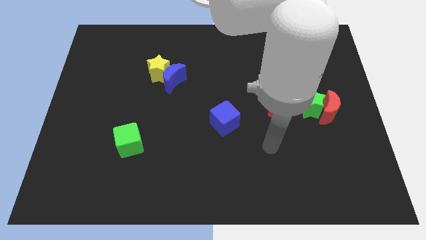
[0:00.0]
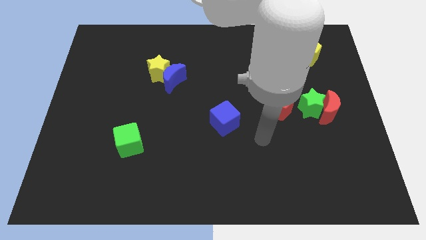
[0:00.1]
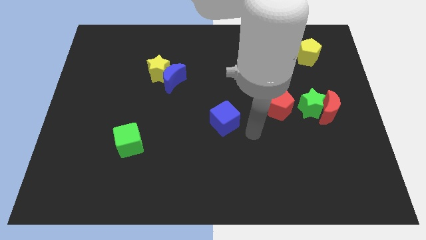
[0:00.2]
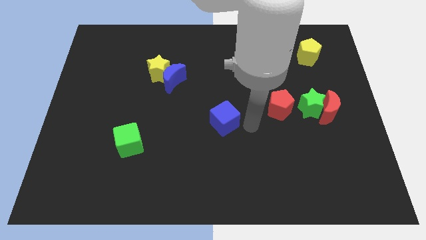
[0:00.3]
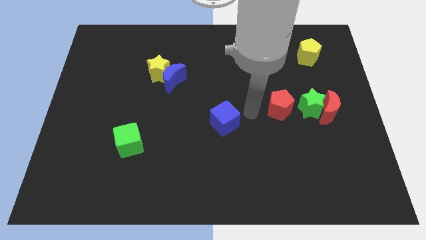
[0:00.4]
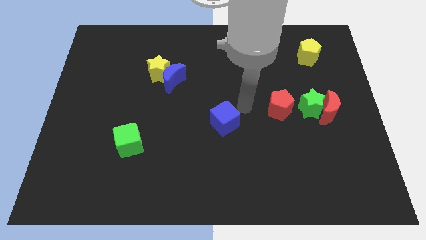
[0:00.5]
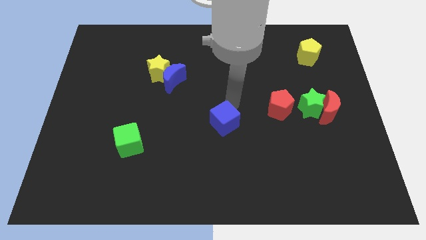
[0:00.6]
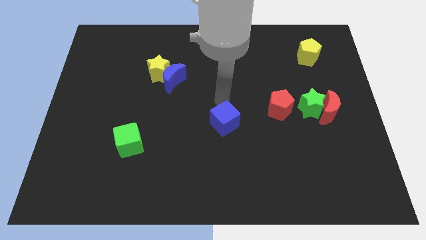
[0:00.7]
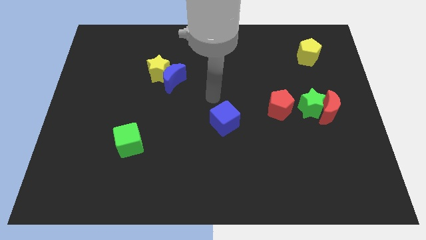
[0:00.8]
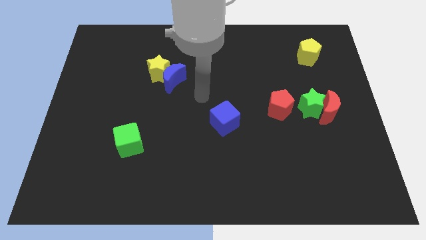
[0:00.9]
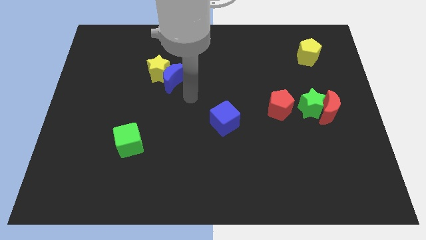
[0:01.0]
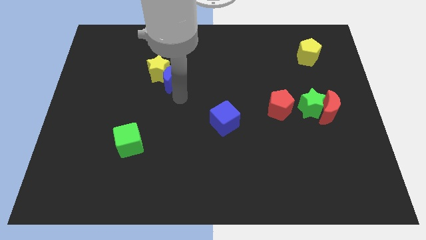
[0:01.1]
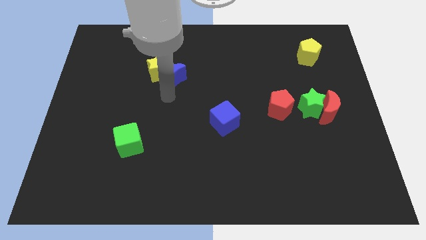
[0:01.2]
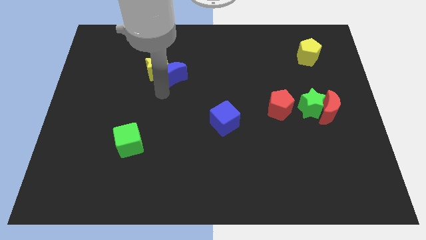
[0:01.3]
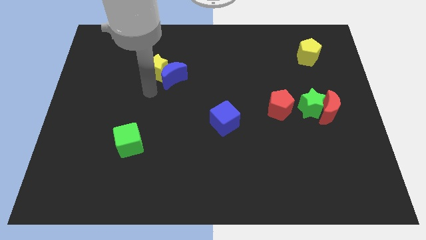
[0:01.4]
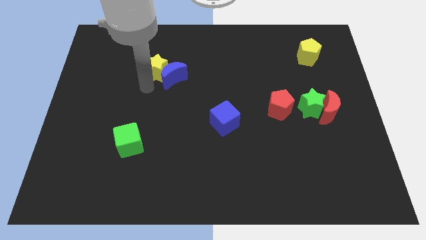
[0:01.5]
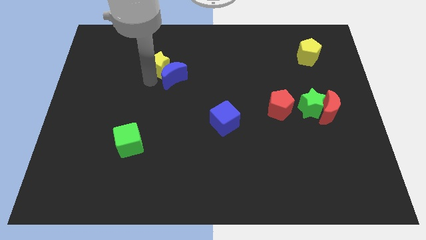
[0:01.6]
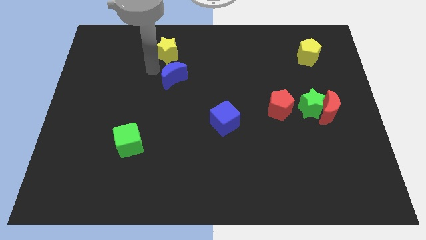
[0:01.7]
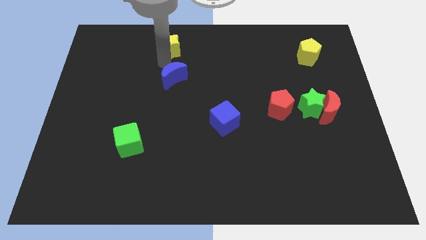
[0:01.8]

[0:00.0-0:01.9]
pull the blue moon apart from the yellow star

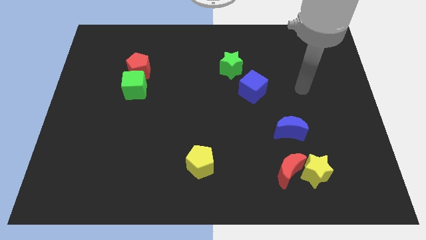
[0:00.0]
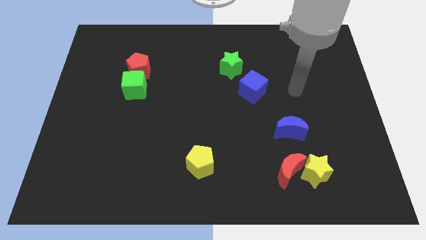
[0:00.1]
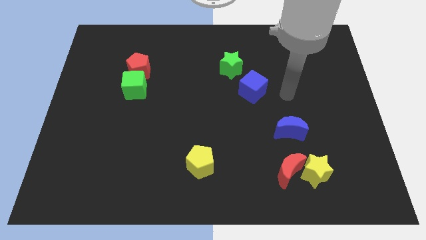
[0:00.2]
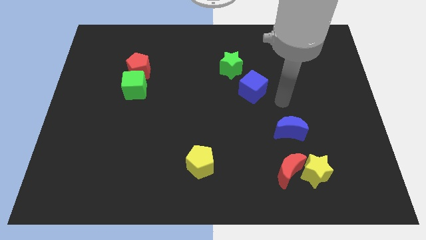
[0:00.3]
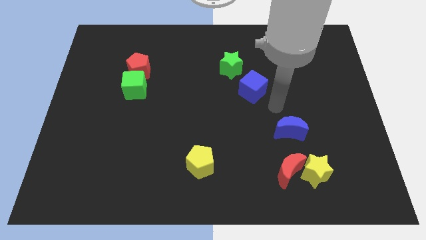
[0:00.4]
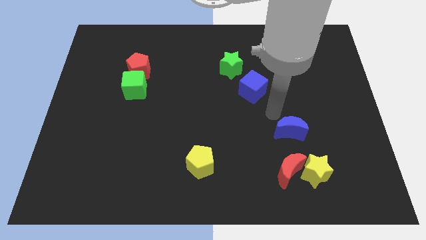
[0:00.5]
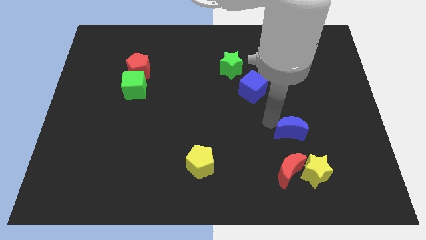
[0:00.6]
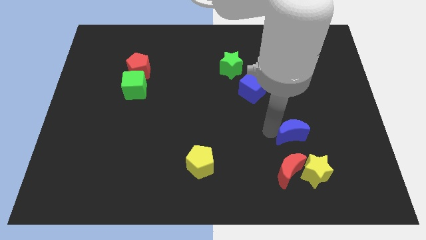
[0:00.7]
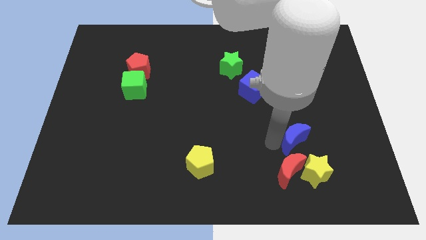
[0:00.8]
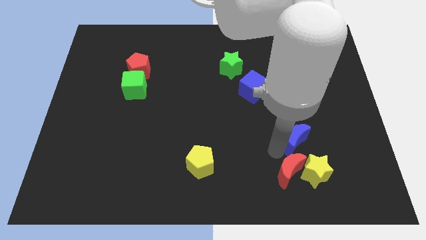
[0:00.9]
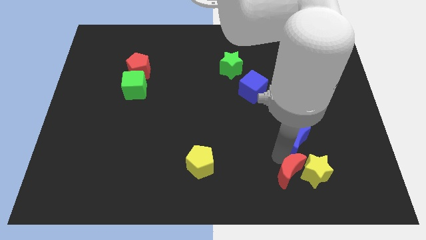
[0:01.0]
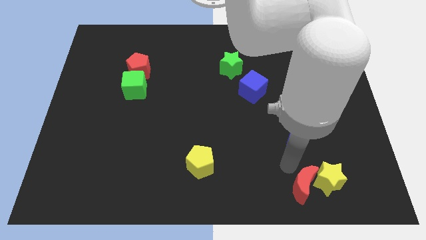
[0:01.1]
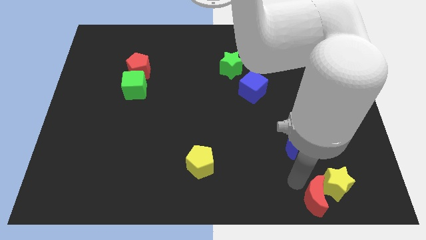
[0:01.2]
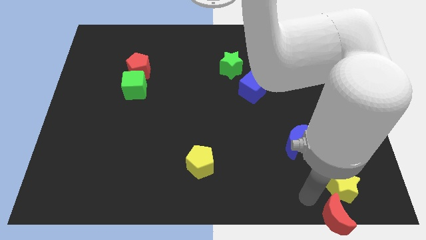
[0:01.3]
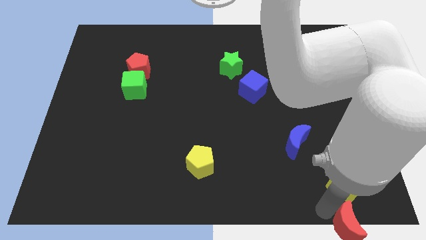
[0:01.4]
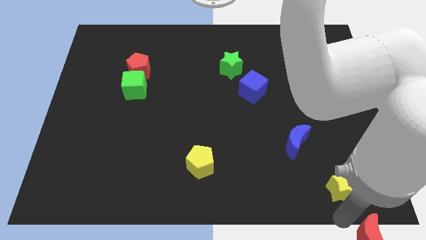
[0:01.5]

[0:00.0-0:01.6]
move the yellow star away from the red moon

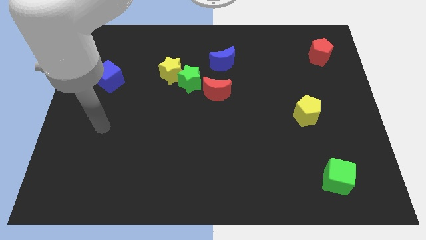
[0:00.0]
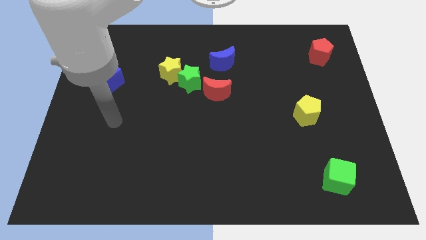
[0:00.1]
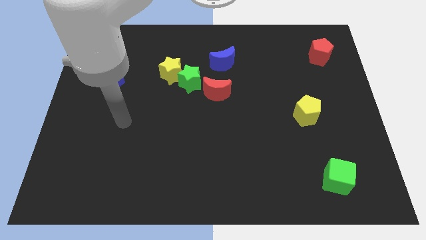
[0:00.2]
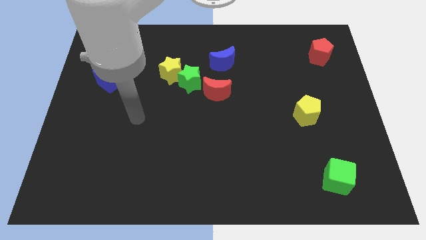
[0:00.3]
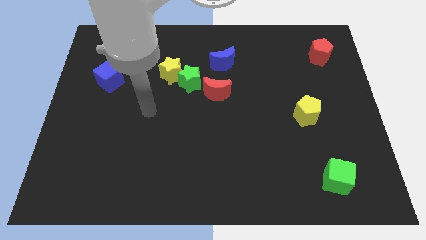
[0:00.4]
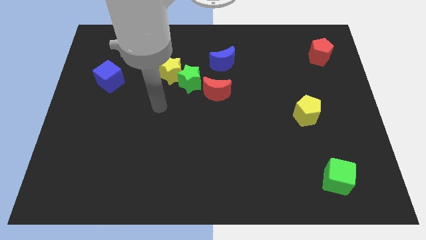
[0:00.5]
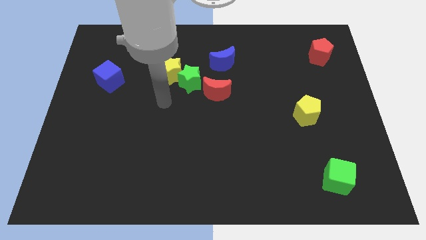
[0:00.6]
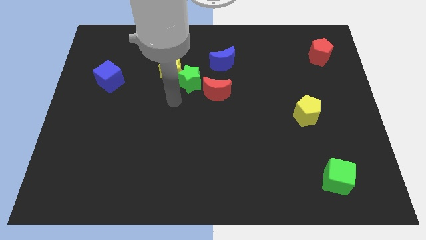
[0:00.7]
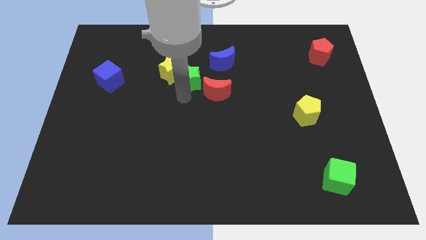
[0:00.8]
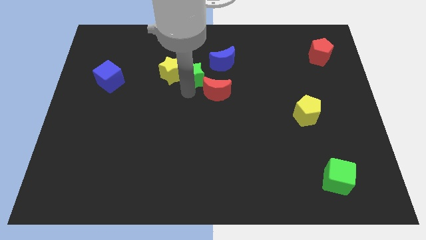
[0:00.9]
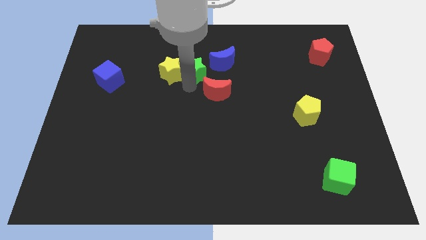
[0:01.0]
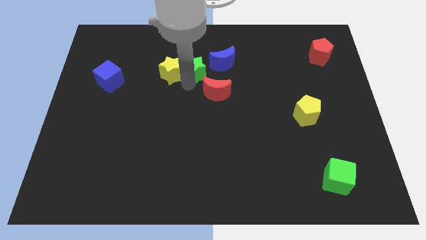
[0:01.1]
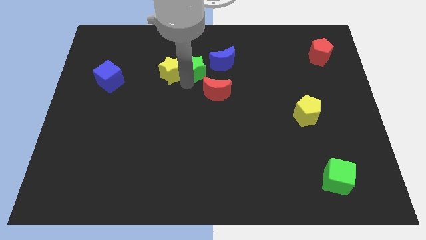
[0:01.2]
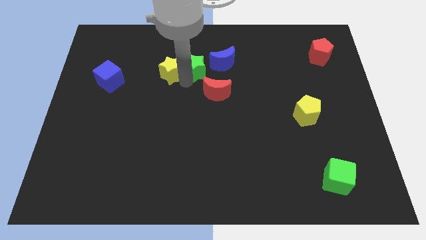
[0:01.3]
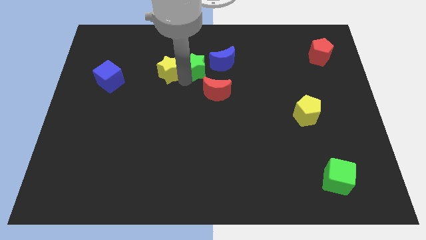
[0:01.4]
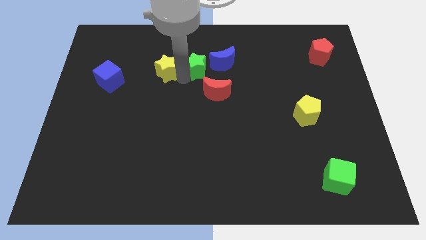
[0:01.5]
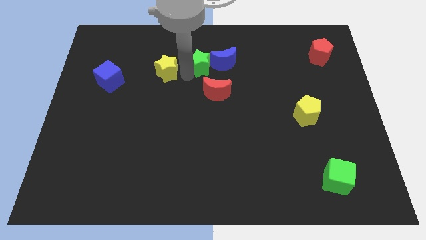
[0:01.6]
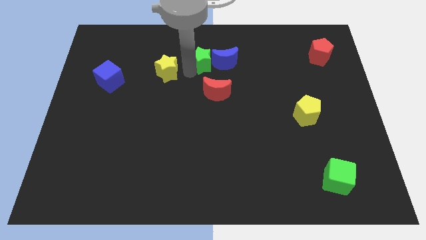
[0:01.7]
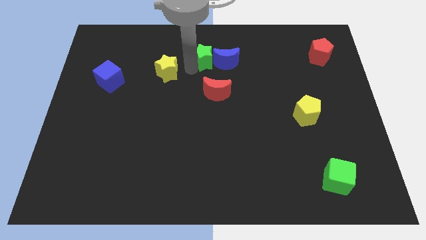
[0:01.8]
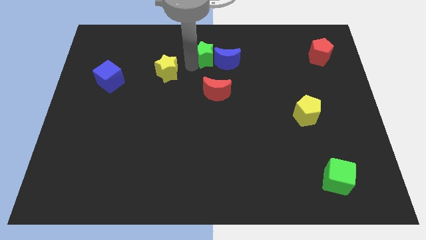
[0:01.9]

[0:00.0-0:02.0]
pull the yellow star apart from the green star

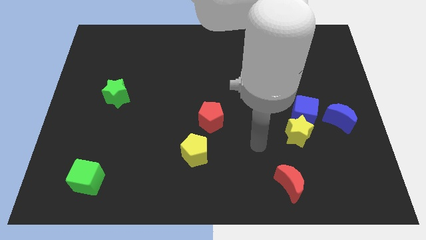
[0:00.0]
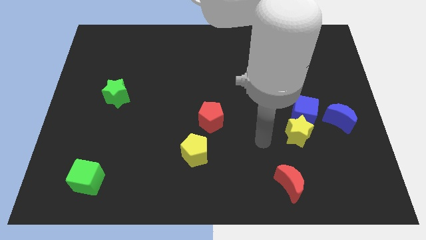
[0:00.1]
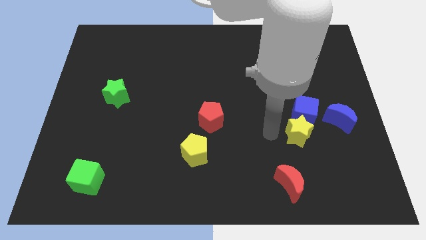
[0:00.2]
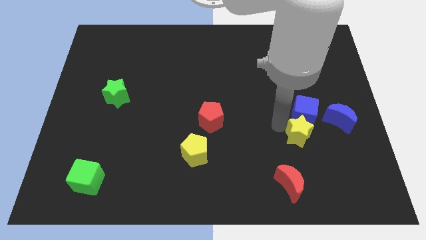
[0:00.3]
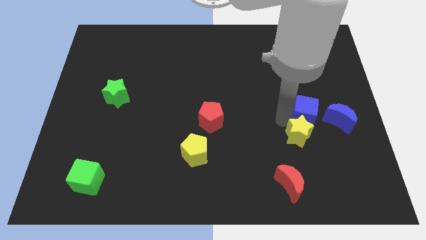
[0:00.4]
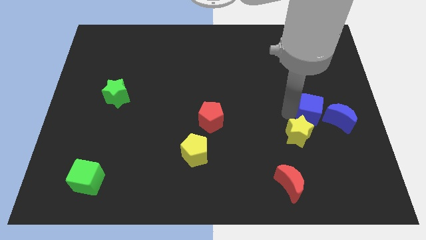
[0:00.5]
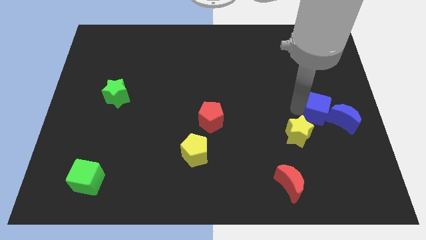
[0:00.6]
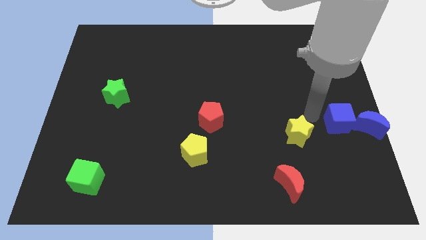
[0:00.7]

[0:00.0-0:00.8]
move the yellow star away from the blue cube

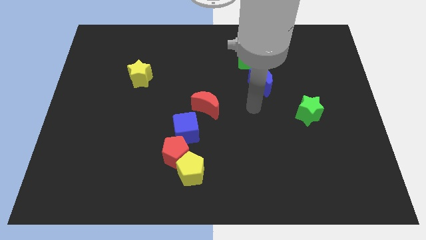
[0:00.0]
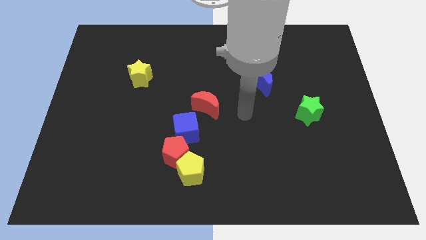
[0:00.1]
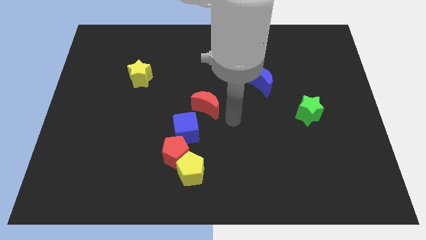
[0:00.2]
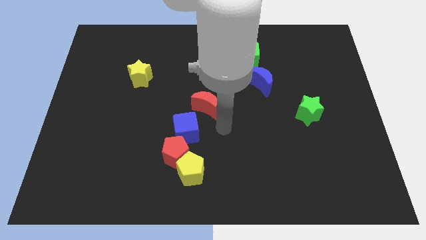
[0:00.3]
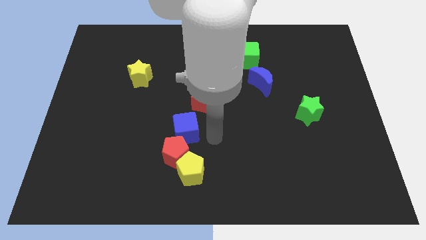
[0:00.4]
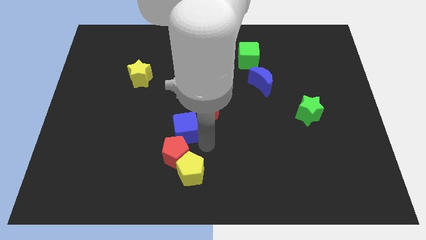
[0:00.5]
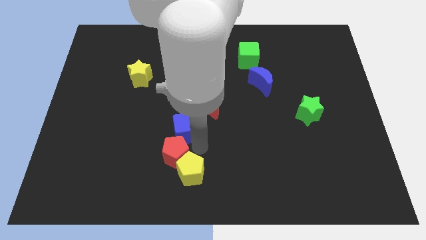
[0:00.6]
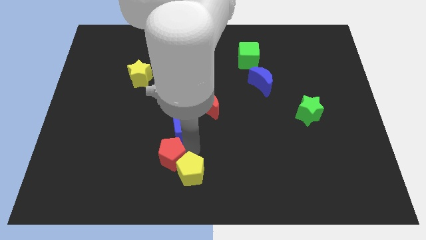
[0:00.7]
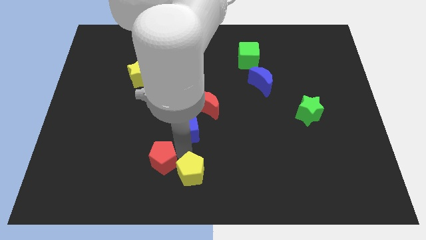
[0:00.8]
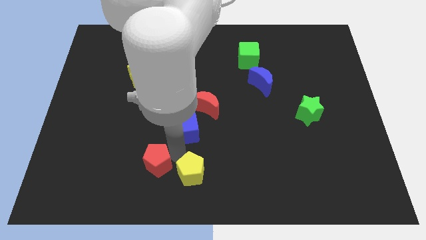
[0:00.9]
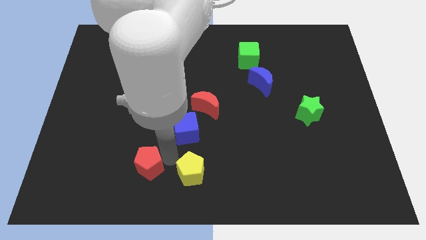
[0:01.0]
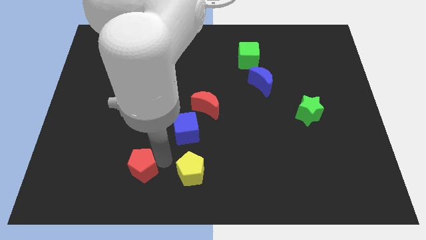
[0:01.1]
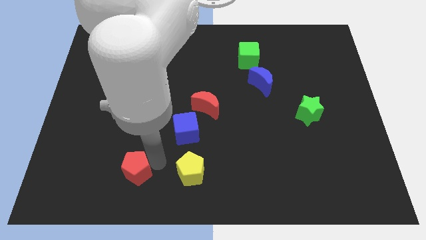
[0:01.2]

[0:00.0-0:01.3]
separate the red pentagon from the yellow pentagon and blue cube

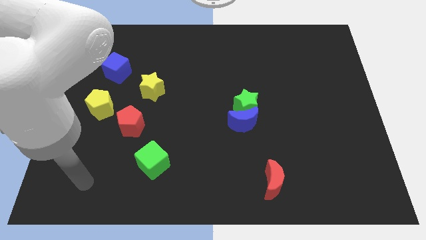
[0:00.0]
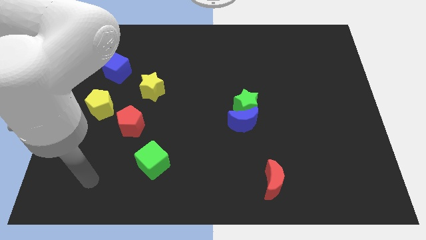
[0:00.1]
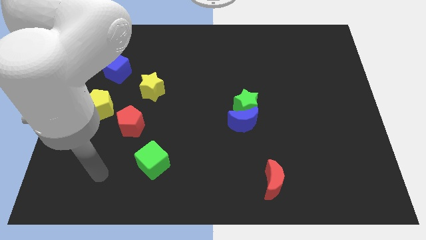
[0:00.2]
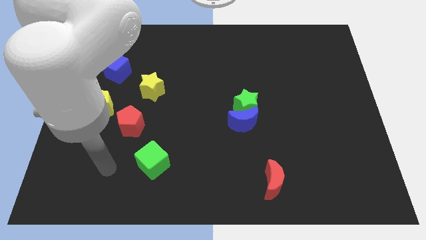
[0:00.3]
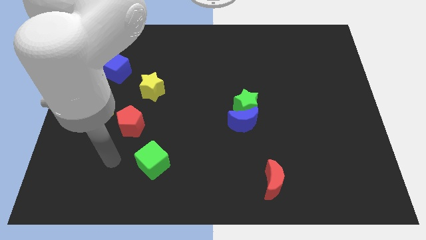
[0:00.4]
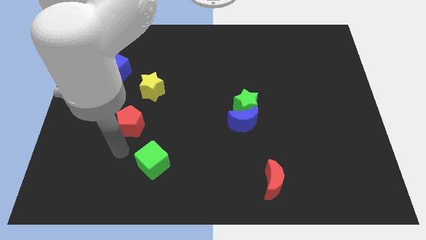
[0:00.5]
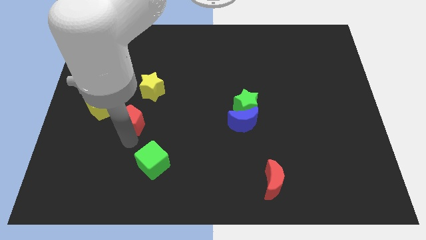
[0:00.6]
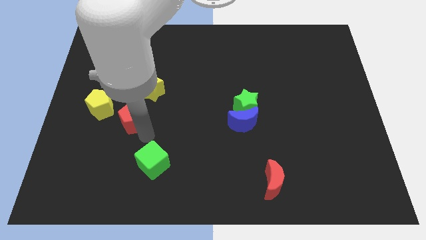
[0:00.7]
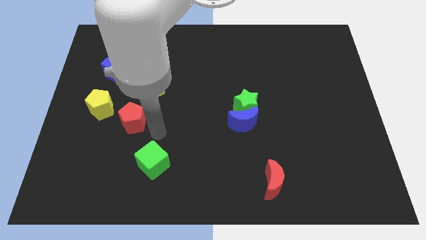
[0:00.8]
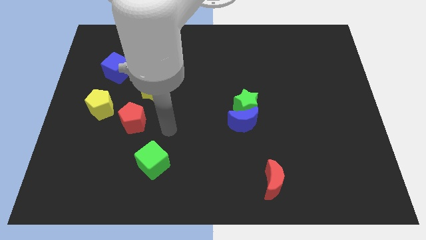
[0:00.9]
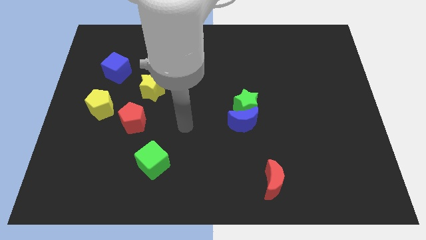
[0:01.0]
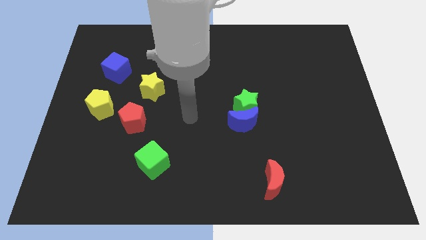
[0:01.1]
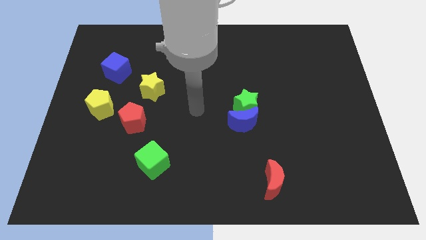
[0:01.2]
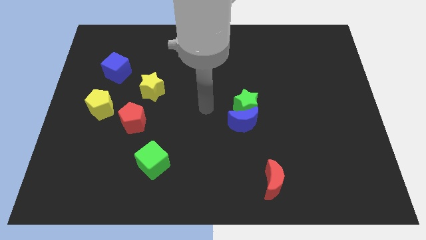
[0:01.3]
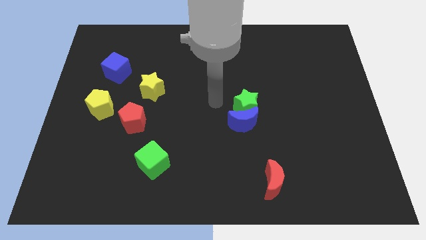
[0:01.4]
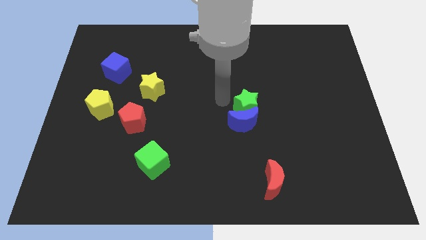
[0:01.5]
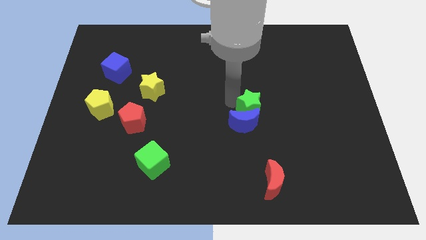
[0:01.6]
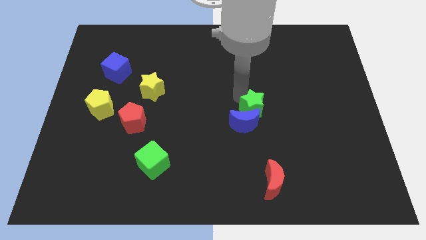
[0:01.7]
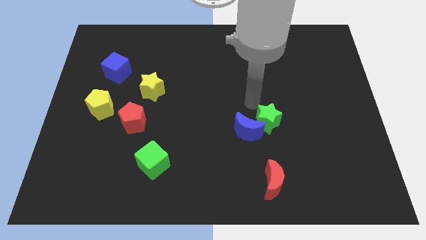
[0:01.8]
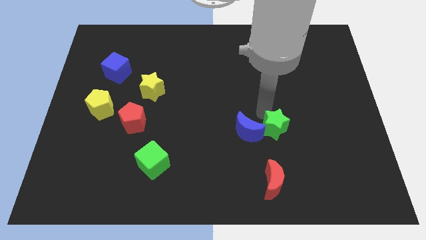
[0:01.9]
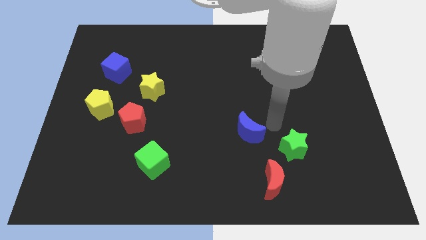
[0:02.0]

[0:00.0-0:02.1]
separate the blue moon from the green star
